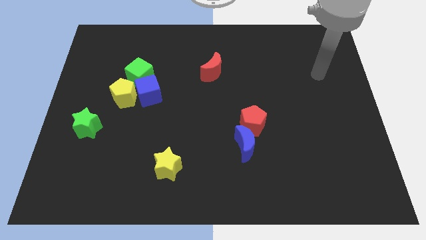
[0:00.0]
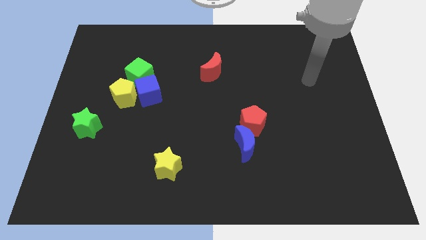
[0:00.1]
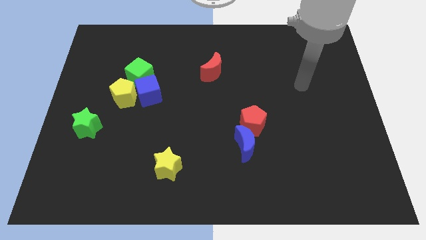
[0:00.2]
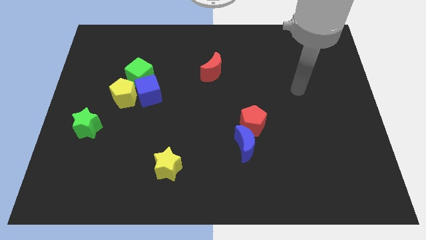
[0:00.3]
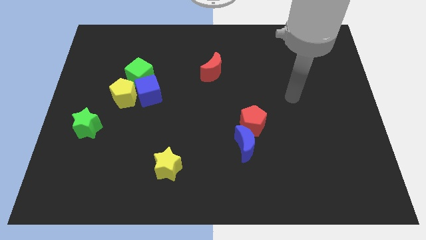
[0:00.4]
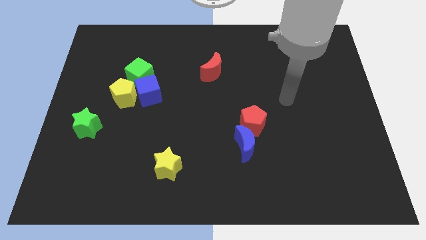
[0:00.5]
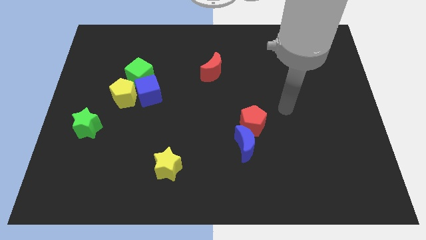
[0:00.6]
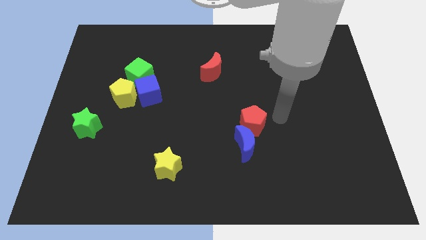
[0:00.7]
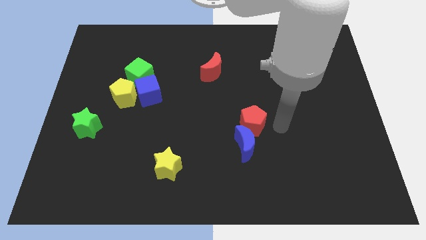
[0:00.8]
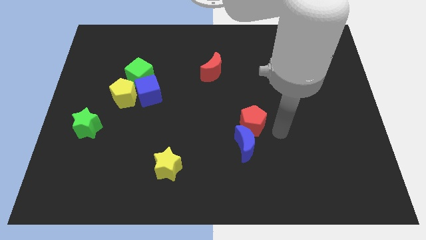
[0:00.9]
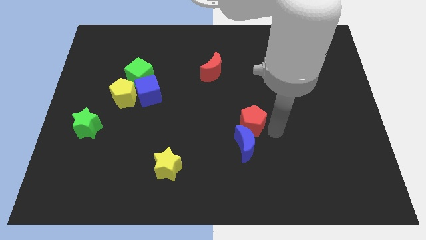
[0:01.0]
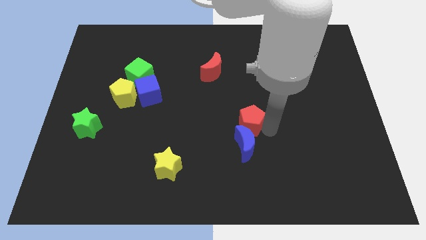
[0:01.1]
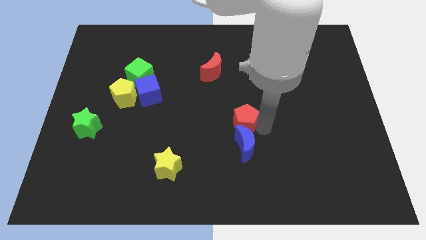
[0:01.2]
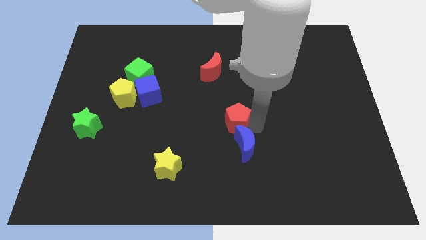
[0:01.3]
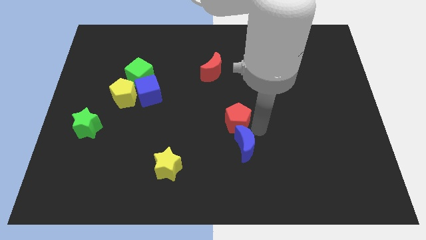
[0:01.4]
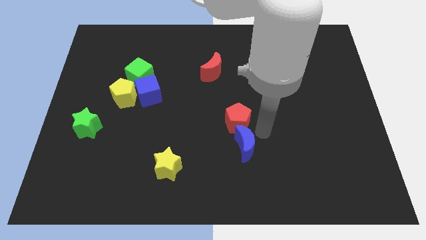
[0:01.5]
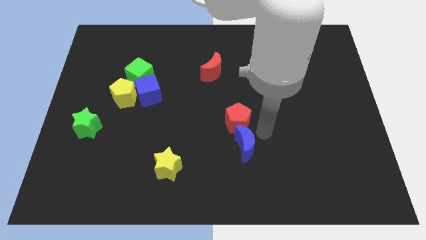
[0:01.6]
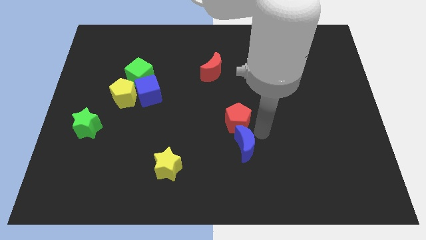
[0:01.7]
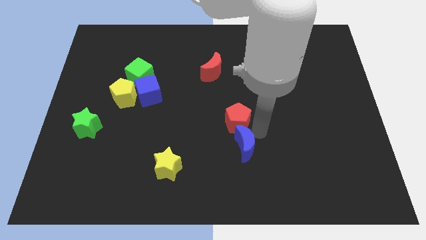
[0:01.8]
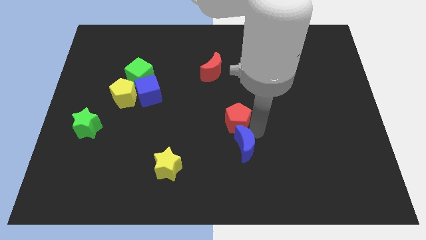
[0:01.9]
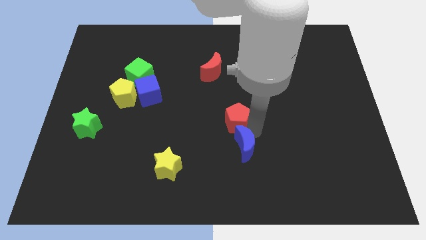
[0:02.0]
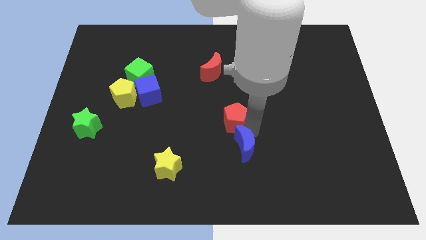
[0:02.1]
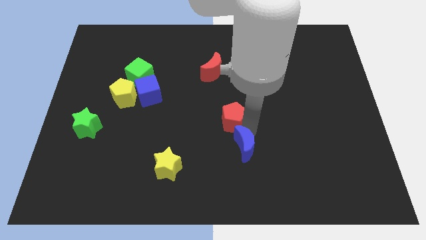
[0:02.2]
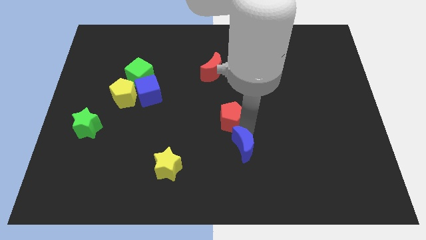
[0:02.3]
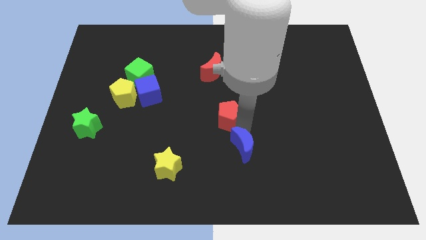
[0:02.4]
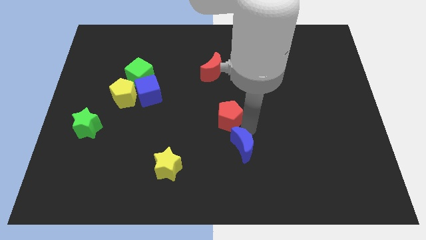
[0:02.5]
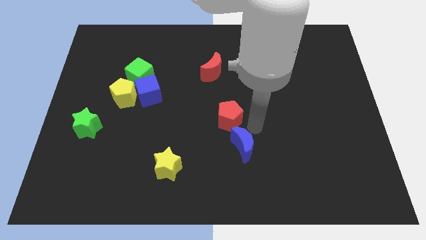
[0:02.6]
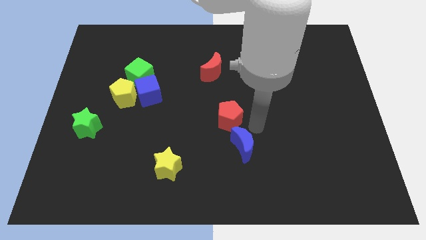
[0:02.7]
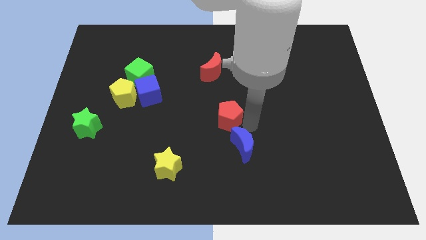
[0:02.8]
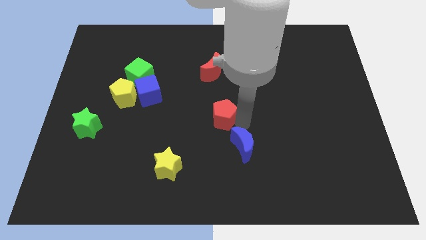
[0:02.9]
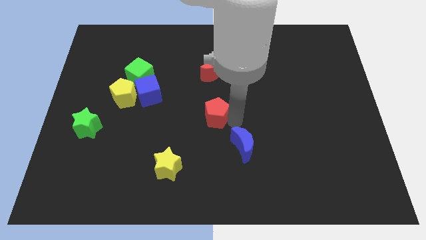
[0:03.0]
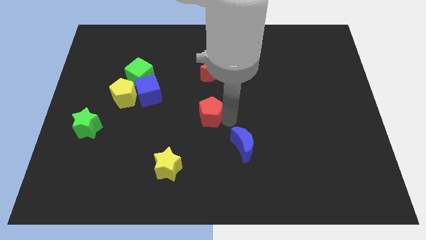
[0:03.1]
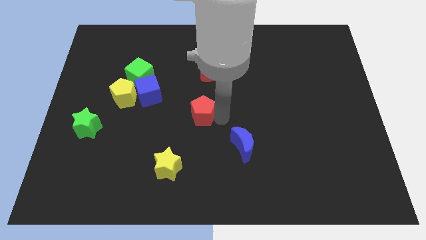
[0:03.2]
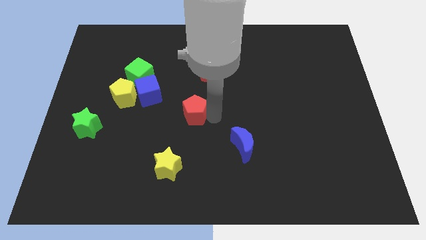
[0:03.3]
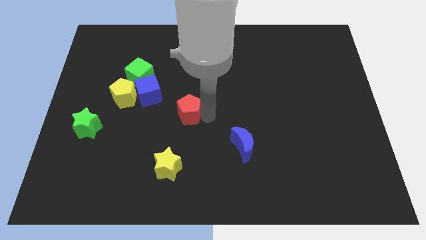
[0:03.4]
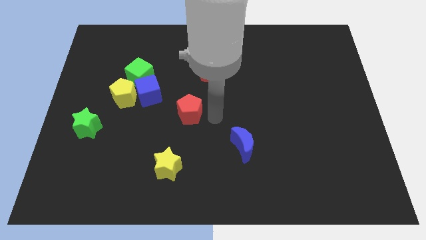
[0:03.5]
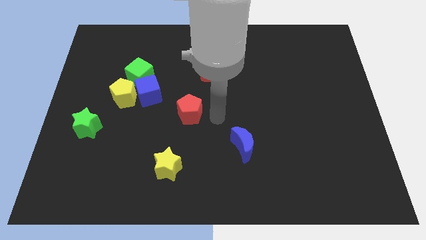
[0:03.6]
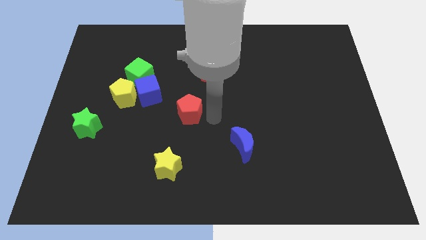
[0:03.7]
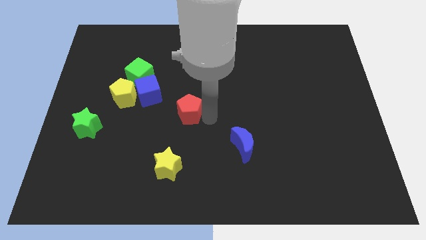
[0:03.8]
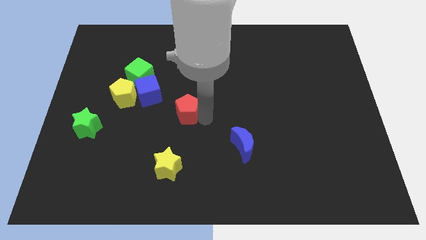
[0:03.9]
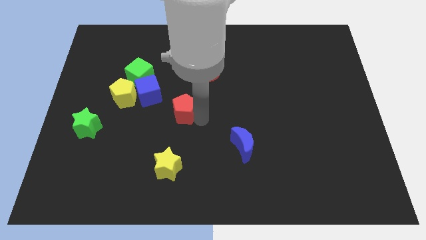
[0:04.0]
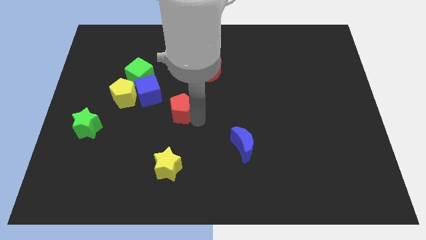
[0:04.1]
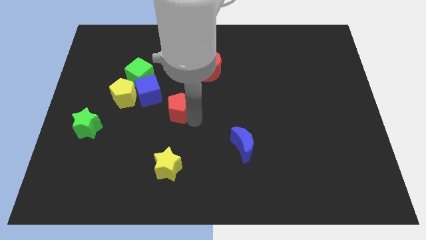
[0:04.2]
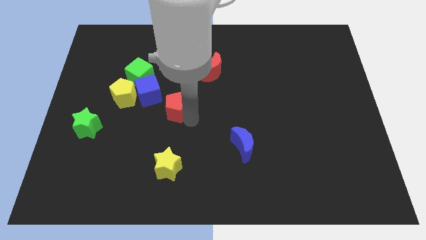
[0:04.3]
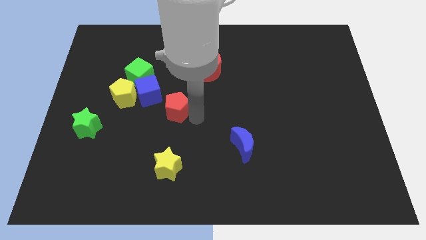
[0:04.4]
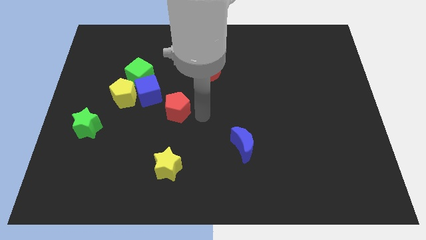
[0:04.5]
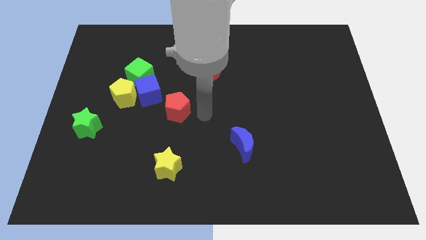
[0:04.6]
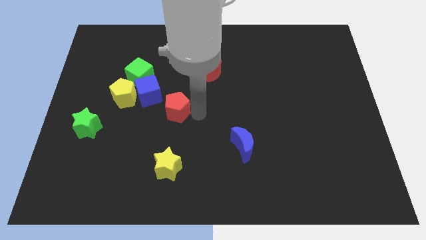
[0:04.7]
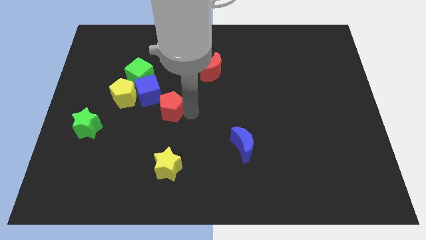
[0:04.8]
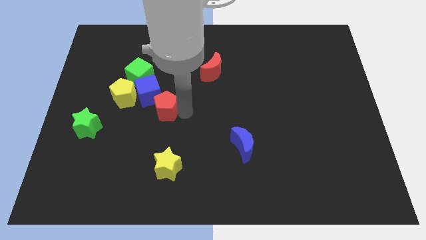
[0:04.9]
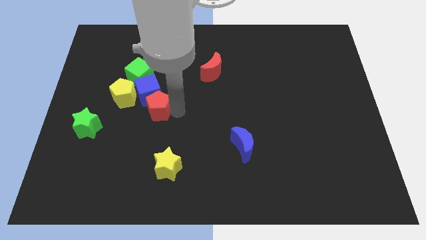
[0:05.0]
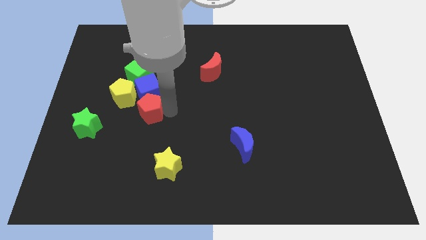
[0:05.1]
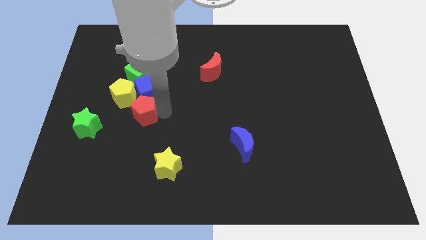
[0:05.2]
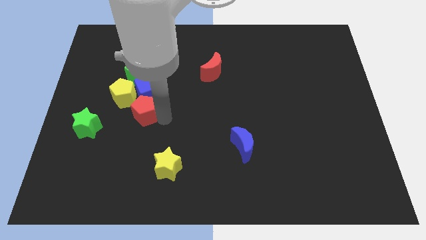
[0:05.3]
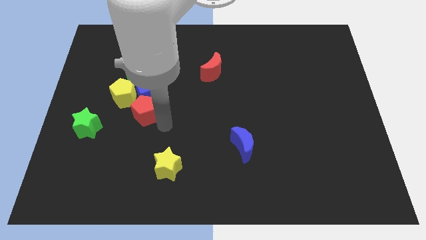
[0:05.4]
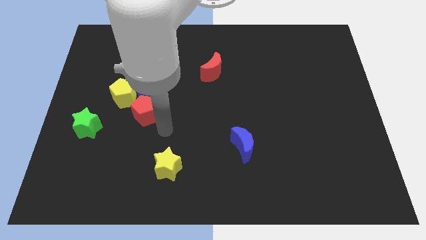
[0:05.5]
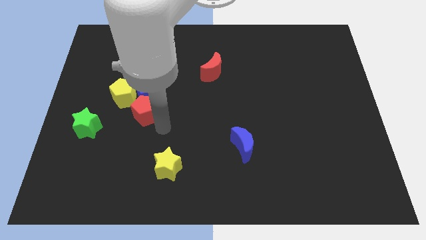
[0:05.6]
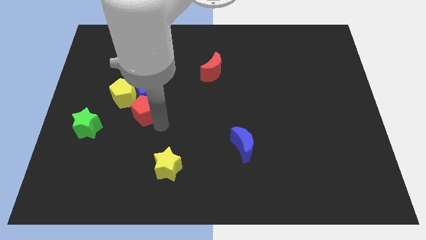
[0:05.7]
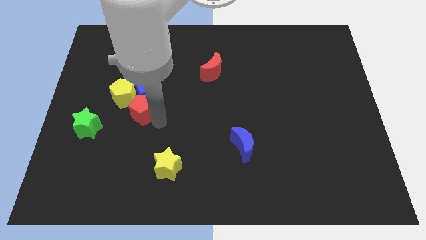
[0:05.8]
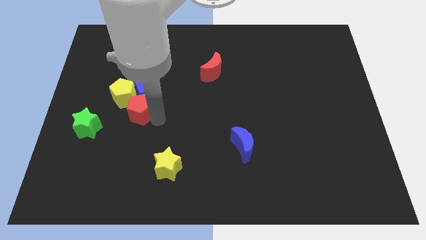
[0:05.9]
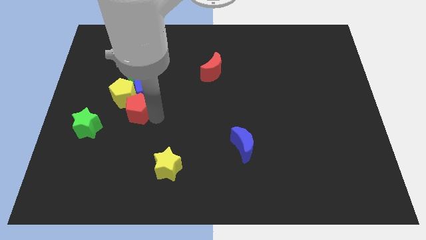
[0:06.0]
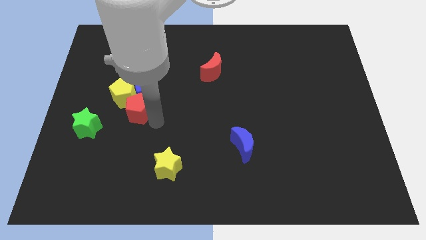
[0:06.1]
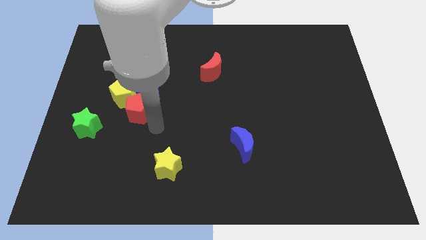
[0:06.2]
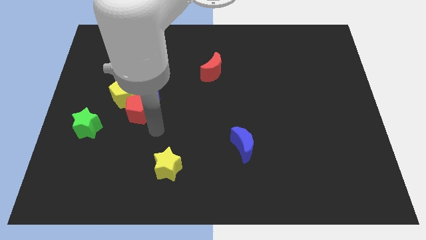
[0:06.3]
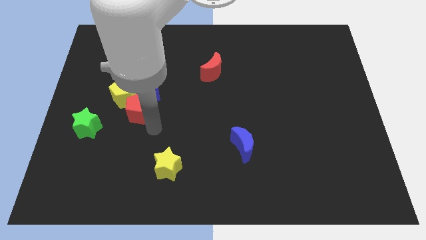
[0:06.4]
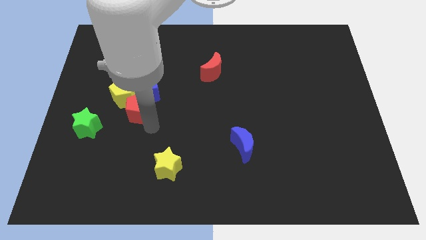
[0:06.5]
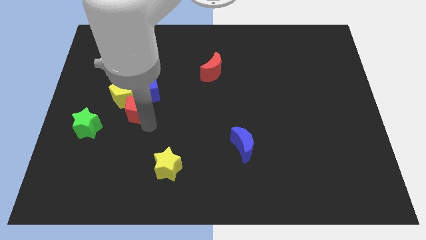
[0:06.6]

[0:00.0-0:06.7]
put the red pentagon close to the yellow pentagon

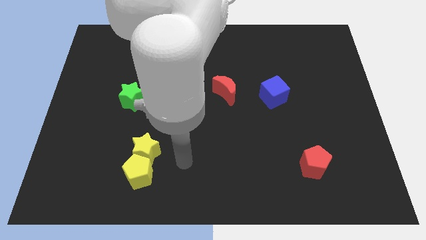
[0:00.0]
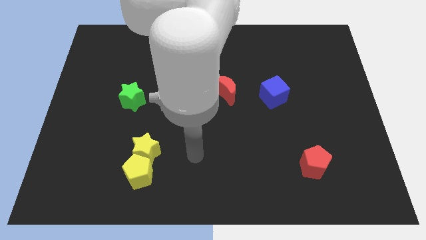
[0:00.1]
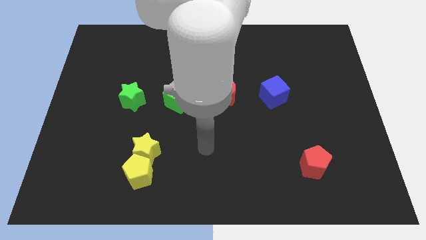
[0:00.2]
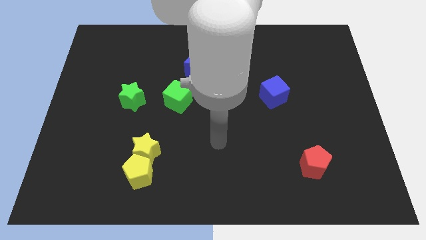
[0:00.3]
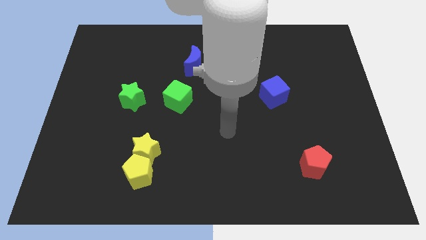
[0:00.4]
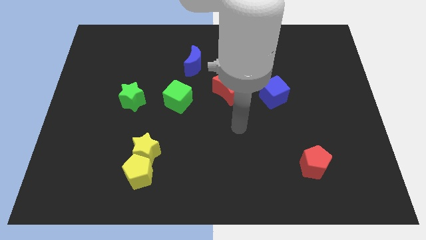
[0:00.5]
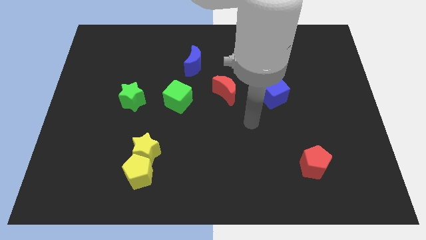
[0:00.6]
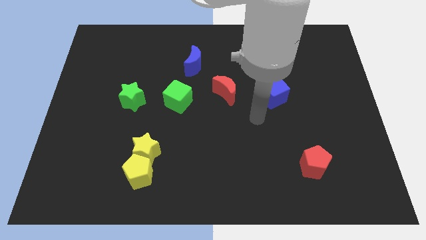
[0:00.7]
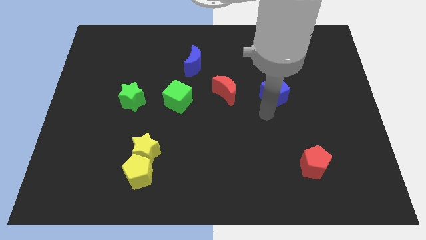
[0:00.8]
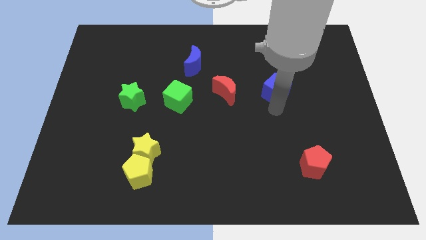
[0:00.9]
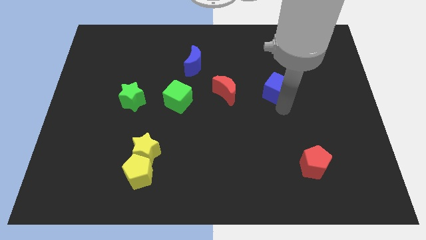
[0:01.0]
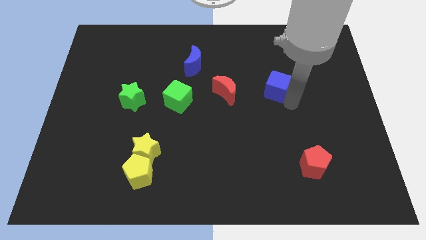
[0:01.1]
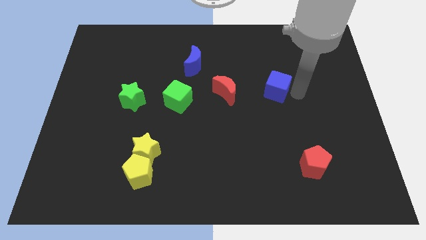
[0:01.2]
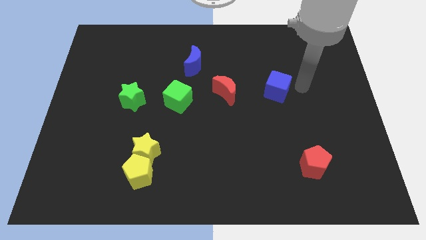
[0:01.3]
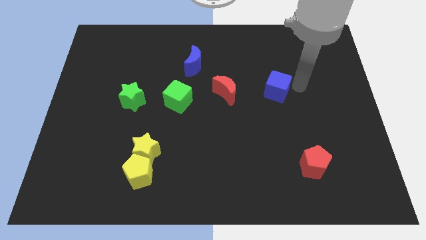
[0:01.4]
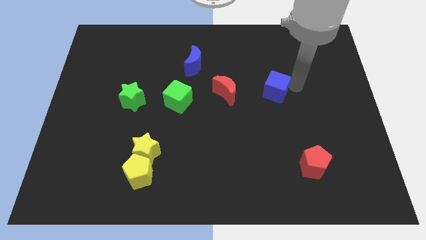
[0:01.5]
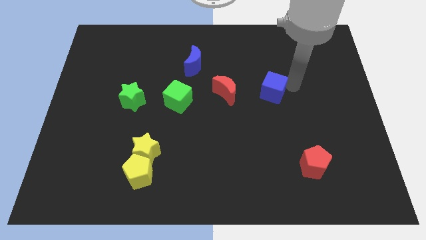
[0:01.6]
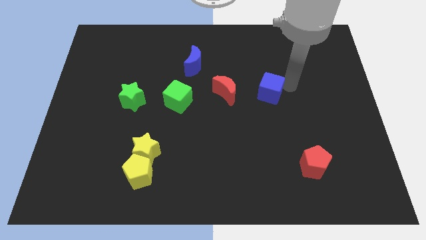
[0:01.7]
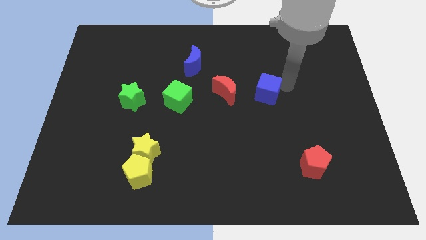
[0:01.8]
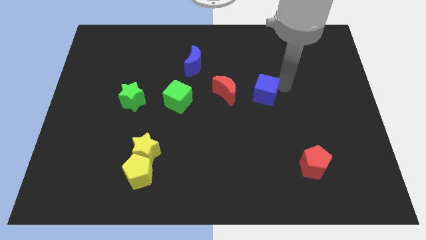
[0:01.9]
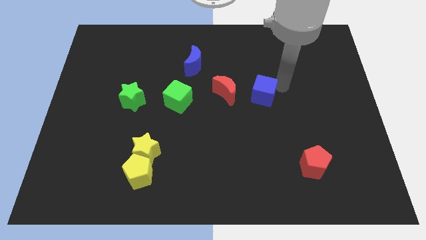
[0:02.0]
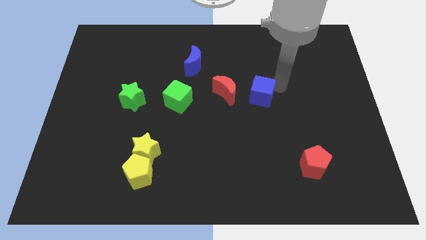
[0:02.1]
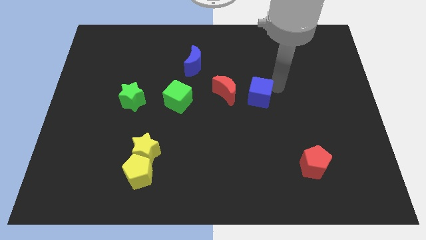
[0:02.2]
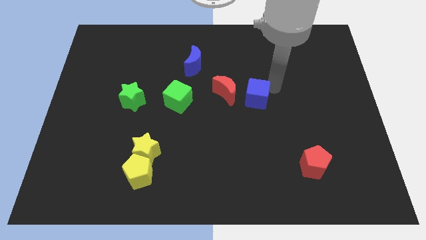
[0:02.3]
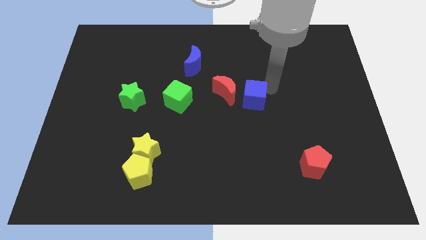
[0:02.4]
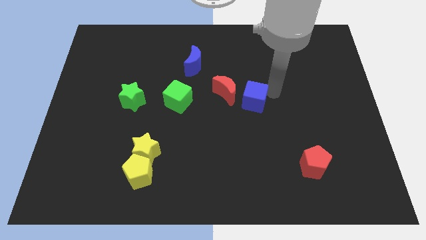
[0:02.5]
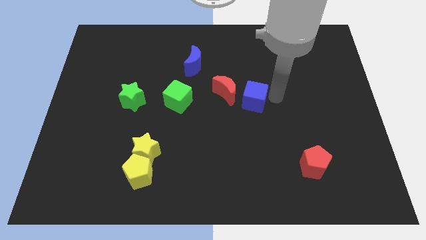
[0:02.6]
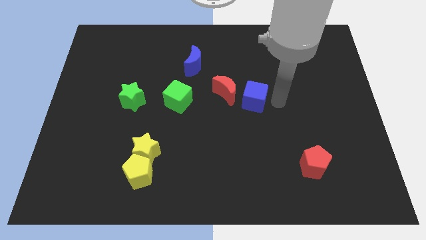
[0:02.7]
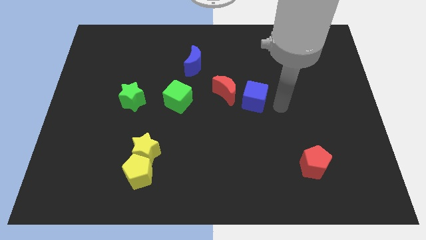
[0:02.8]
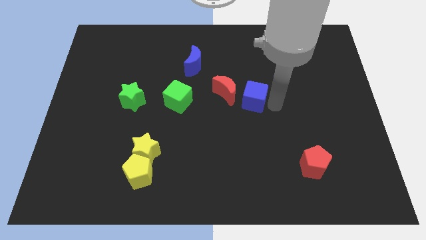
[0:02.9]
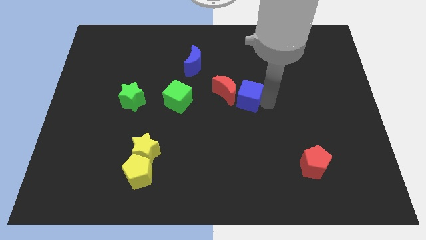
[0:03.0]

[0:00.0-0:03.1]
move the blue cube towards the red moon
